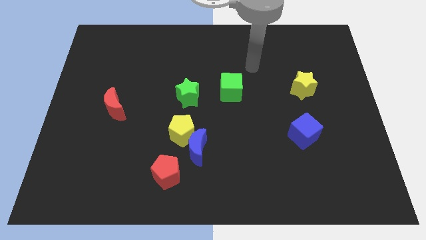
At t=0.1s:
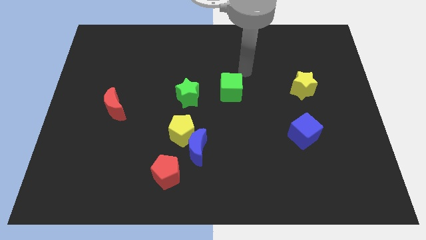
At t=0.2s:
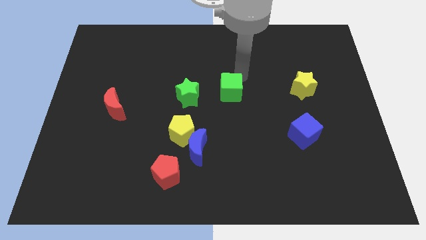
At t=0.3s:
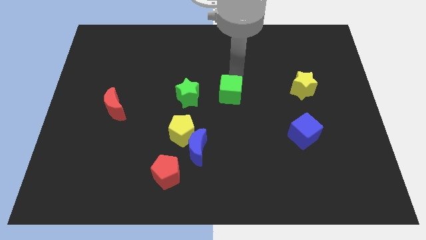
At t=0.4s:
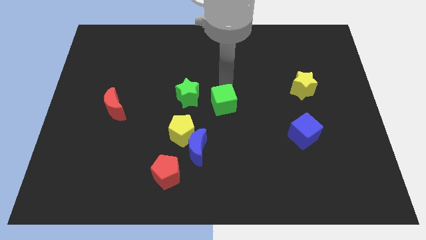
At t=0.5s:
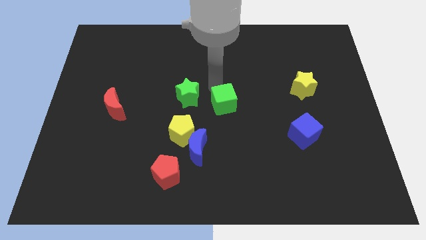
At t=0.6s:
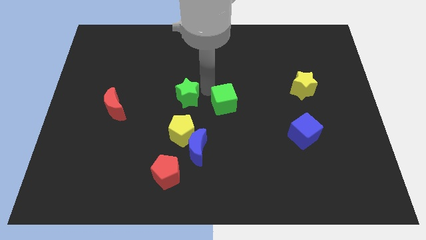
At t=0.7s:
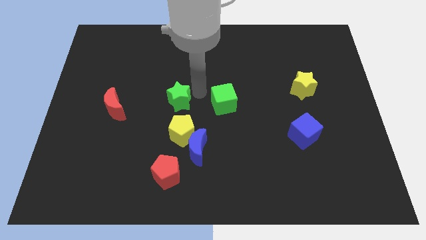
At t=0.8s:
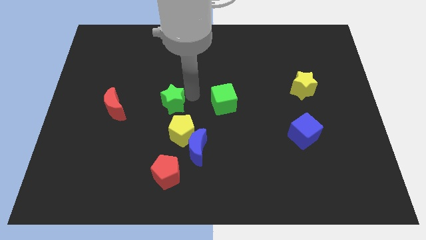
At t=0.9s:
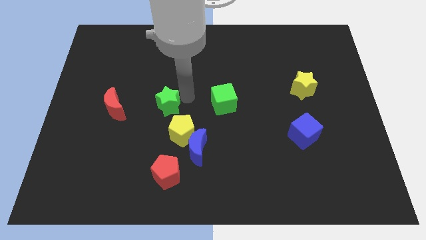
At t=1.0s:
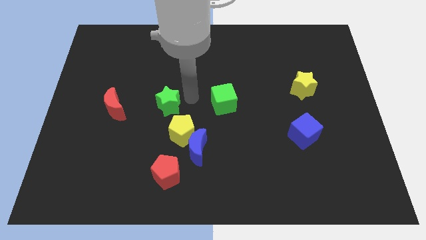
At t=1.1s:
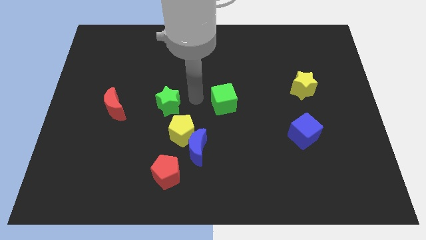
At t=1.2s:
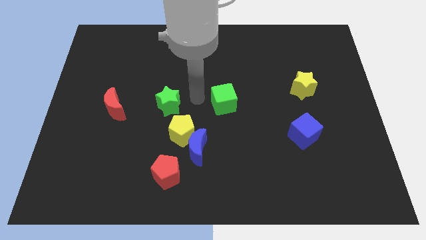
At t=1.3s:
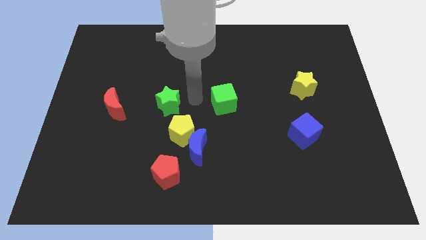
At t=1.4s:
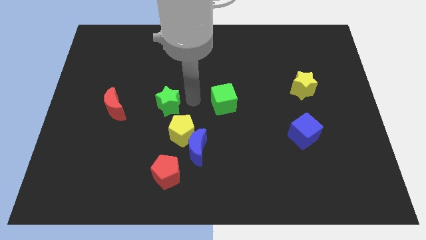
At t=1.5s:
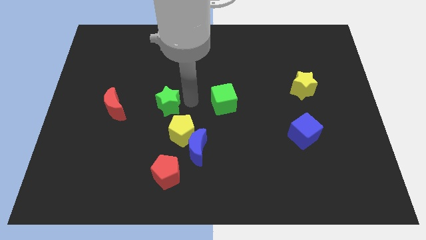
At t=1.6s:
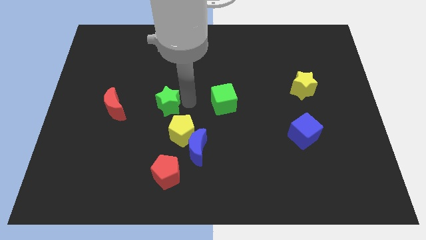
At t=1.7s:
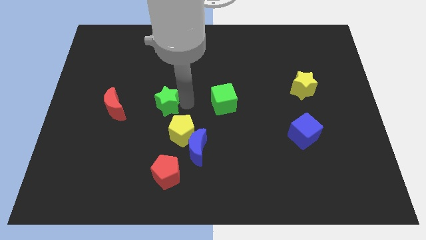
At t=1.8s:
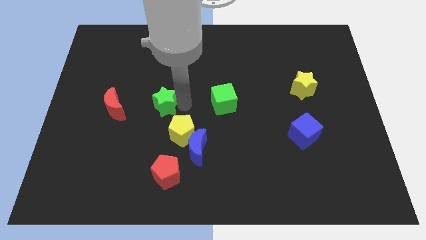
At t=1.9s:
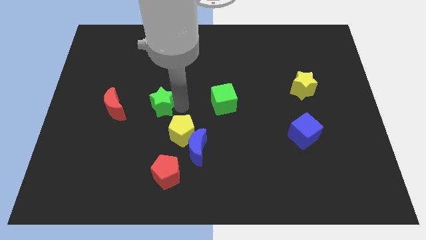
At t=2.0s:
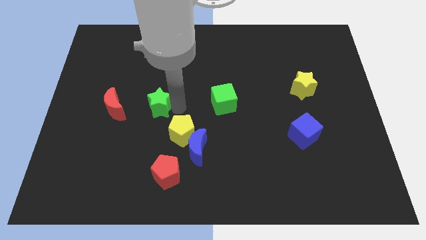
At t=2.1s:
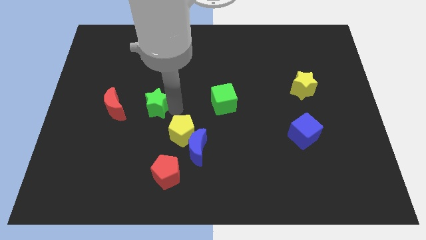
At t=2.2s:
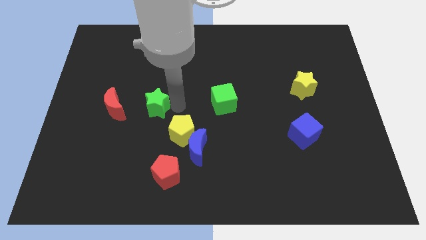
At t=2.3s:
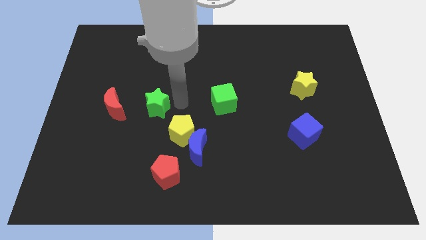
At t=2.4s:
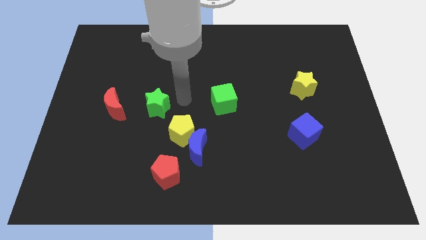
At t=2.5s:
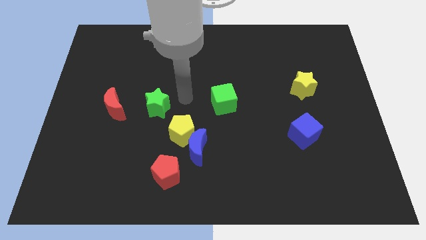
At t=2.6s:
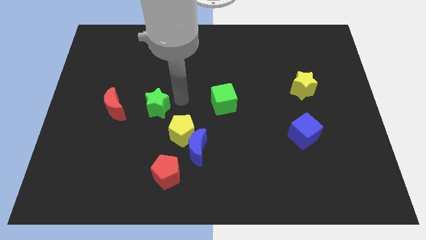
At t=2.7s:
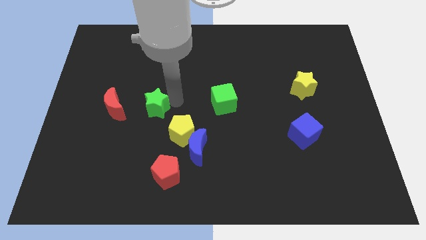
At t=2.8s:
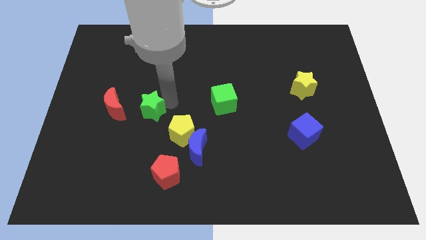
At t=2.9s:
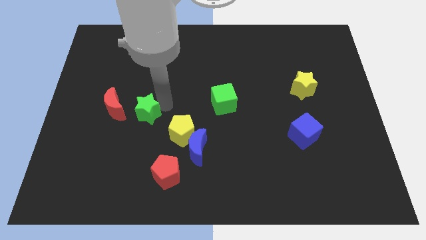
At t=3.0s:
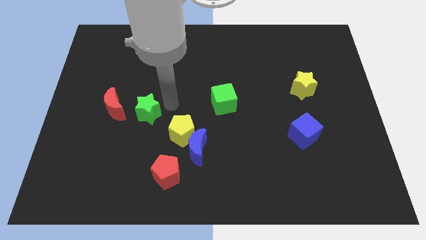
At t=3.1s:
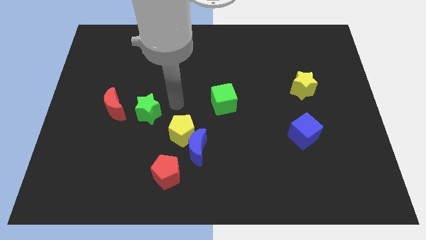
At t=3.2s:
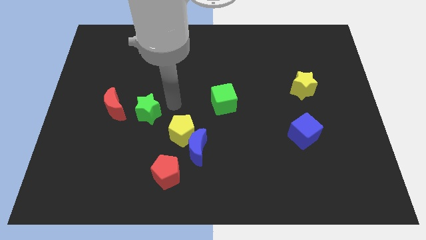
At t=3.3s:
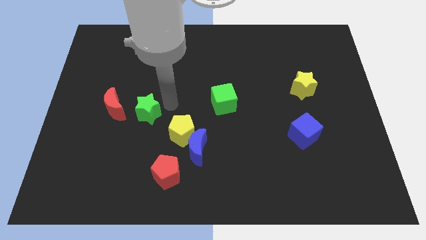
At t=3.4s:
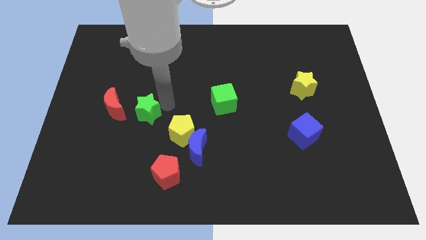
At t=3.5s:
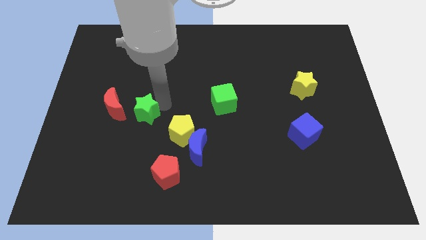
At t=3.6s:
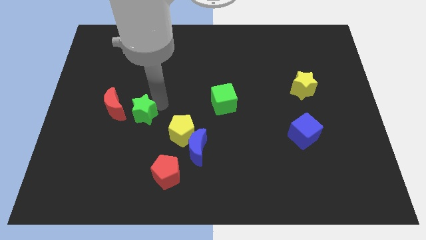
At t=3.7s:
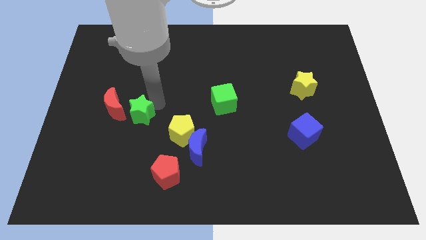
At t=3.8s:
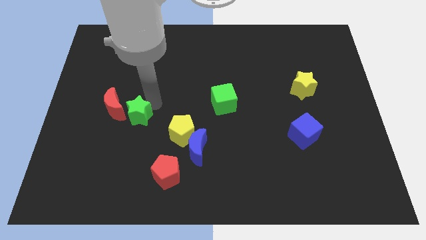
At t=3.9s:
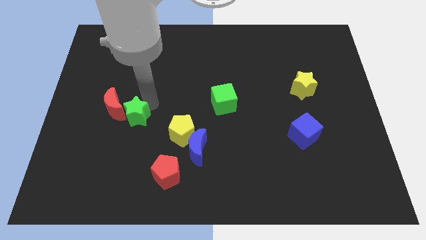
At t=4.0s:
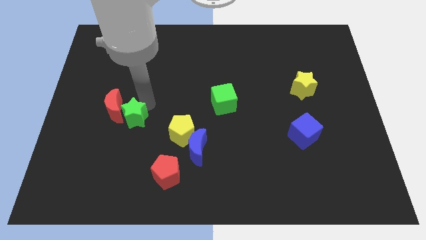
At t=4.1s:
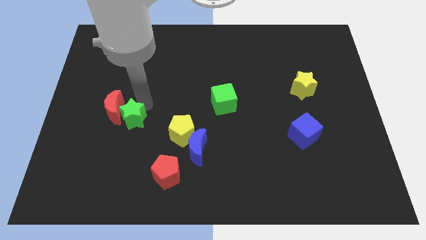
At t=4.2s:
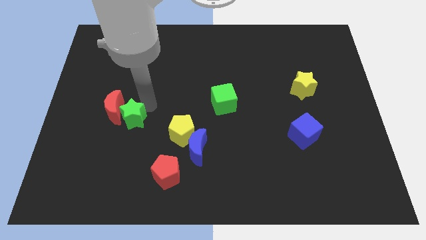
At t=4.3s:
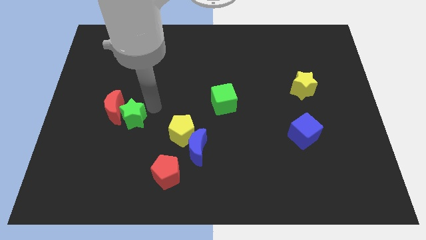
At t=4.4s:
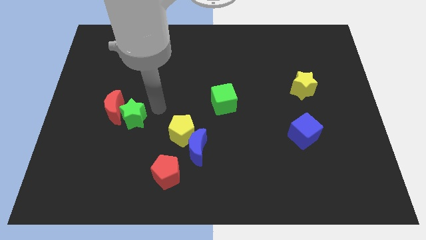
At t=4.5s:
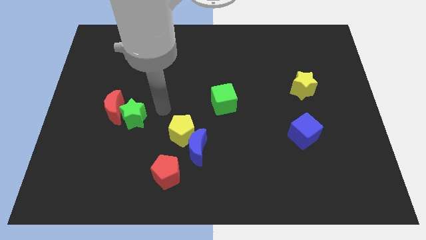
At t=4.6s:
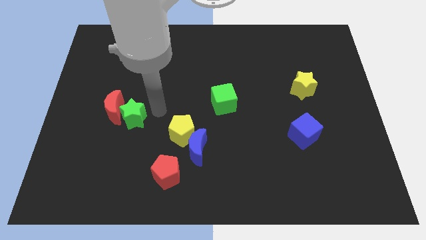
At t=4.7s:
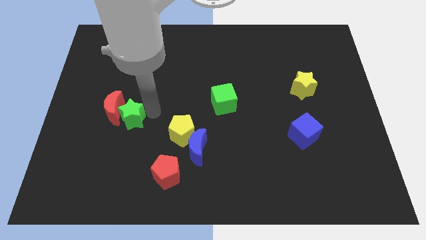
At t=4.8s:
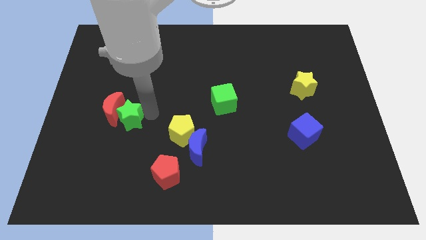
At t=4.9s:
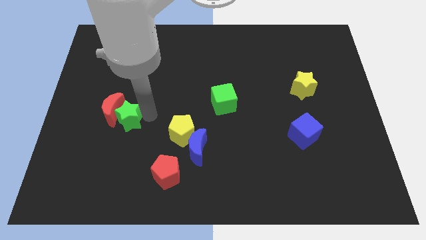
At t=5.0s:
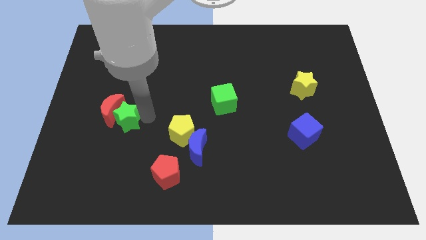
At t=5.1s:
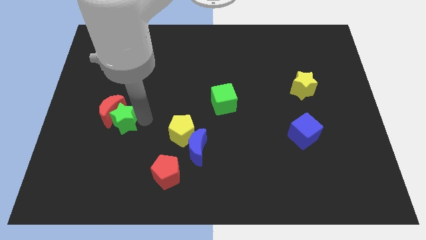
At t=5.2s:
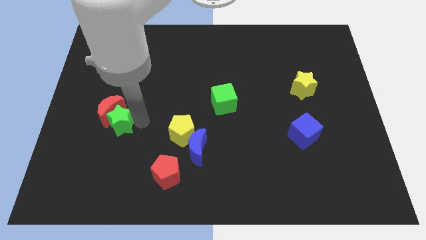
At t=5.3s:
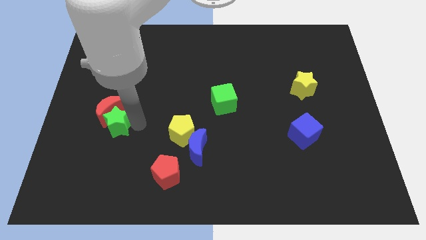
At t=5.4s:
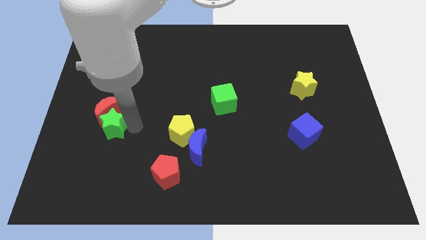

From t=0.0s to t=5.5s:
slide the green star diagonally down and to the left of the red moon

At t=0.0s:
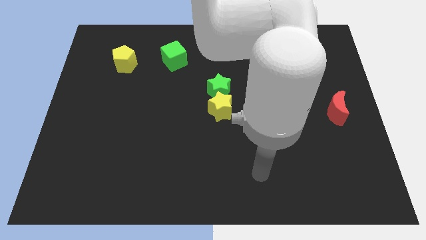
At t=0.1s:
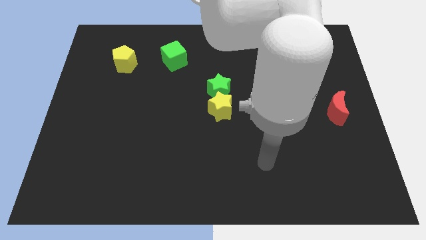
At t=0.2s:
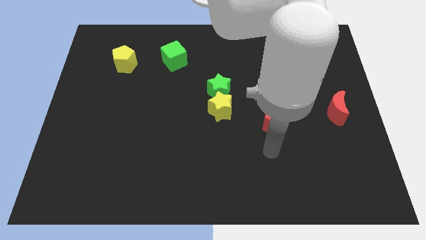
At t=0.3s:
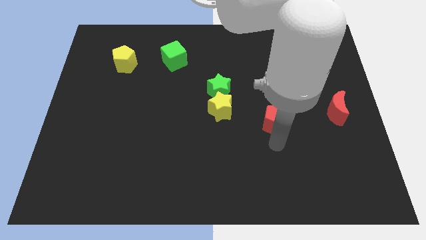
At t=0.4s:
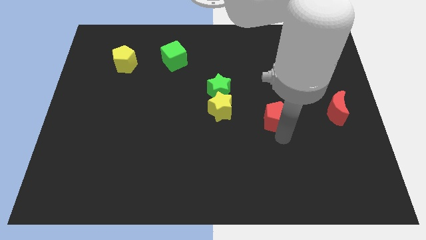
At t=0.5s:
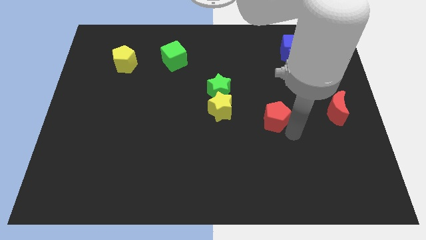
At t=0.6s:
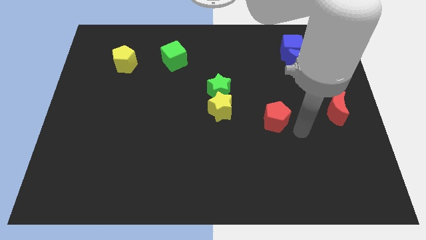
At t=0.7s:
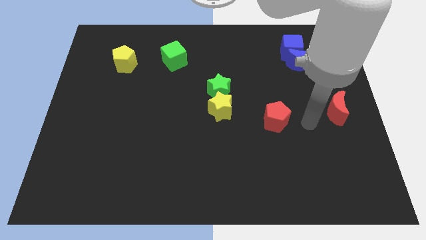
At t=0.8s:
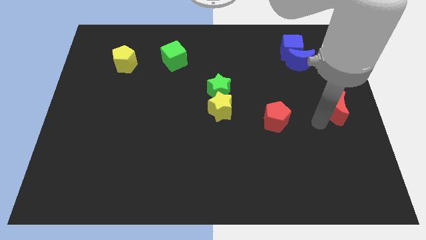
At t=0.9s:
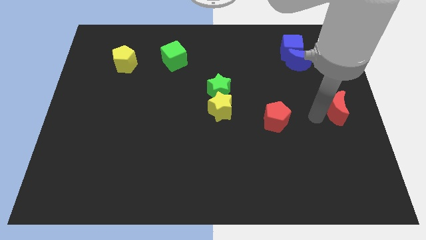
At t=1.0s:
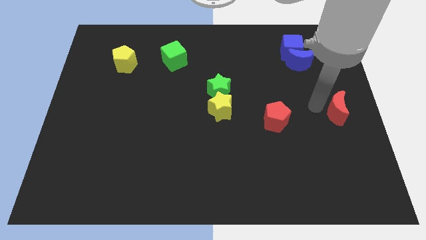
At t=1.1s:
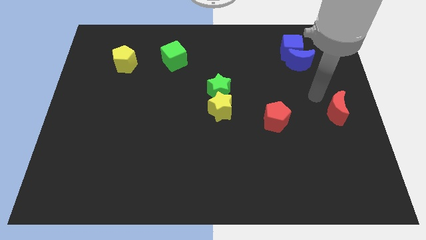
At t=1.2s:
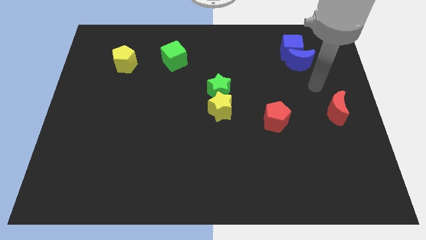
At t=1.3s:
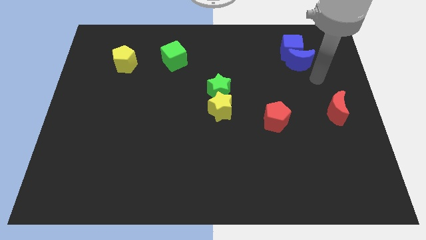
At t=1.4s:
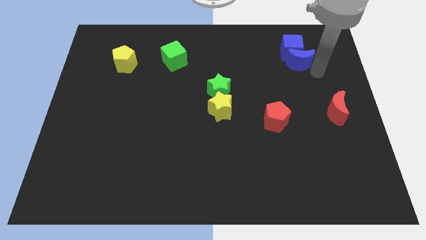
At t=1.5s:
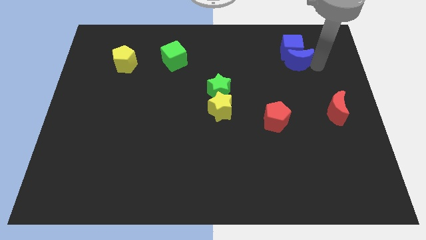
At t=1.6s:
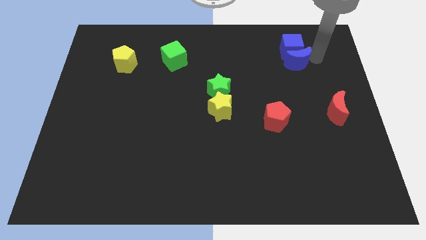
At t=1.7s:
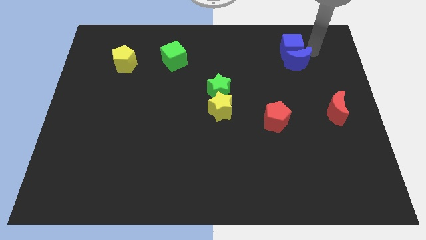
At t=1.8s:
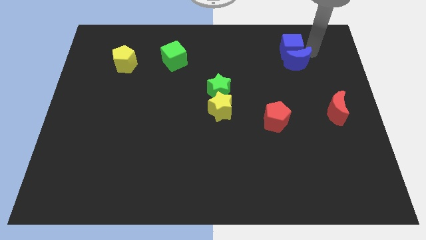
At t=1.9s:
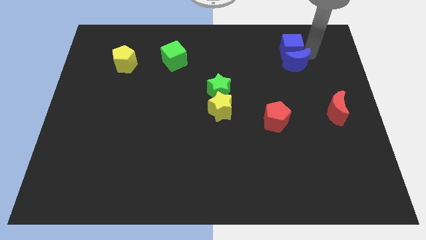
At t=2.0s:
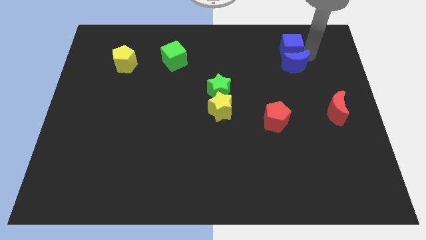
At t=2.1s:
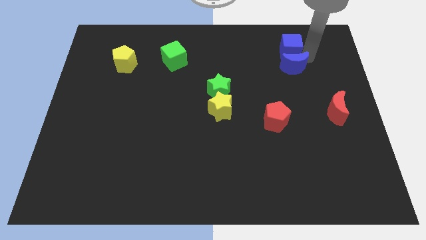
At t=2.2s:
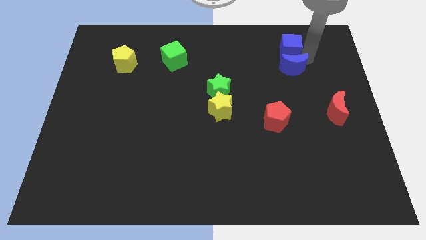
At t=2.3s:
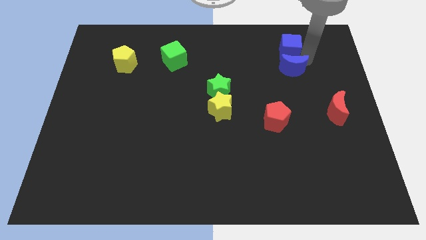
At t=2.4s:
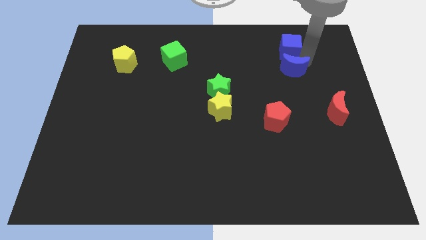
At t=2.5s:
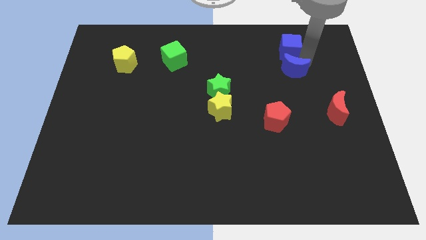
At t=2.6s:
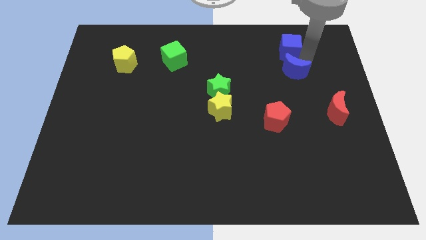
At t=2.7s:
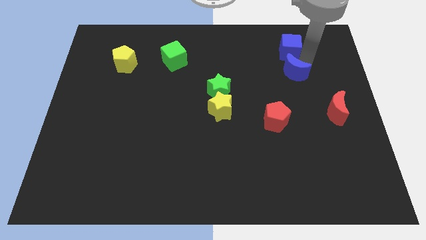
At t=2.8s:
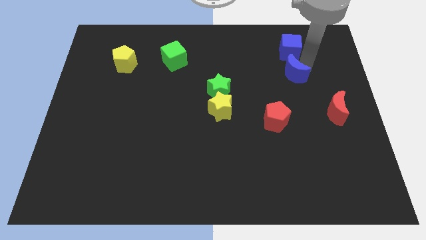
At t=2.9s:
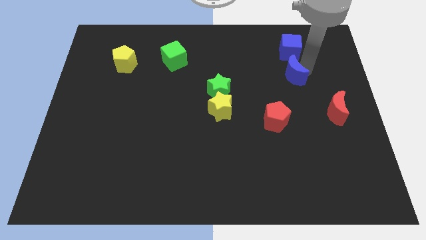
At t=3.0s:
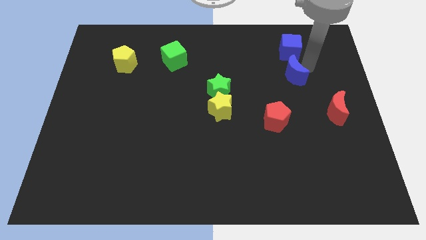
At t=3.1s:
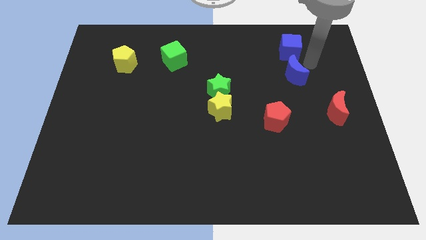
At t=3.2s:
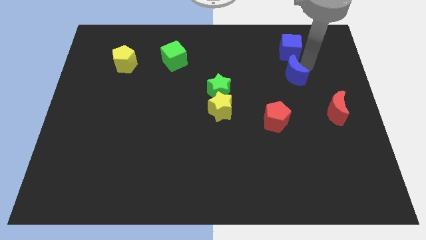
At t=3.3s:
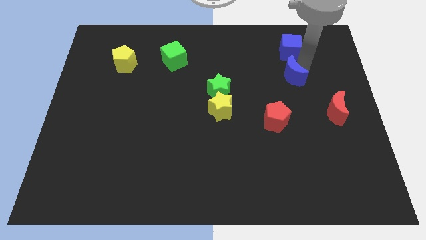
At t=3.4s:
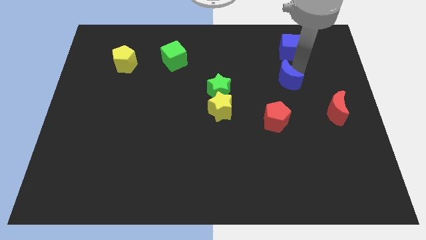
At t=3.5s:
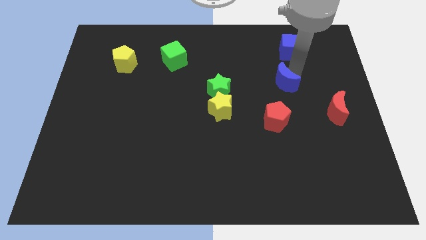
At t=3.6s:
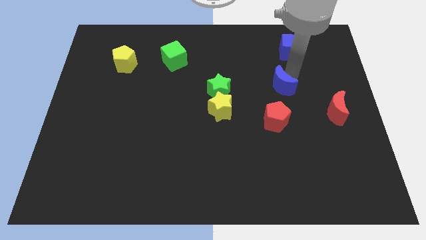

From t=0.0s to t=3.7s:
move the blue moon just right of the green star
